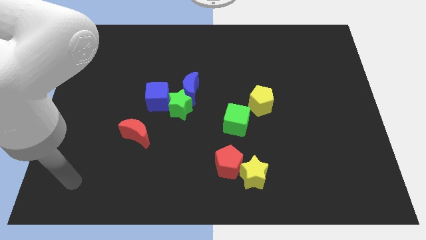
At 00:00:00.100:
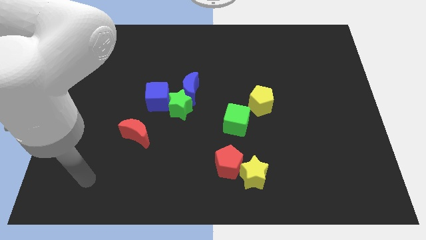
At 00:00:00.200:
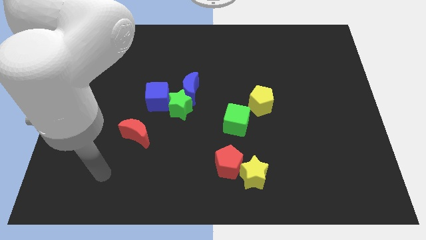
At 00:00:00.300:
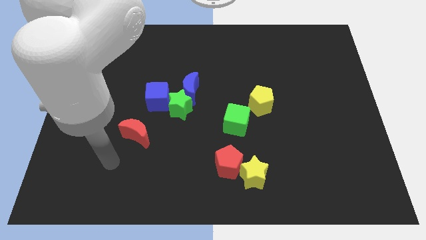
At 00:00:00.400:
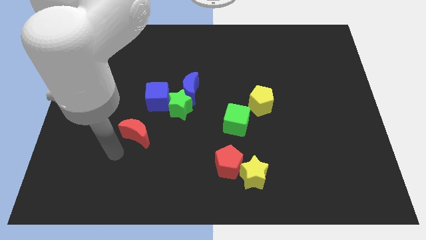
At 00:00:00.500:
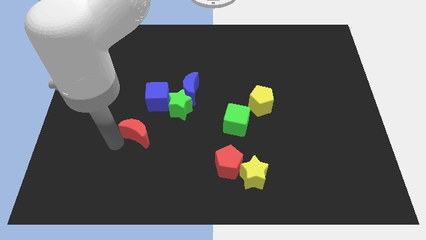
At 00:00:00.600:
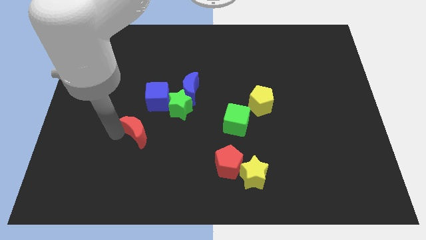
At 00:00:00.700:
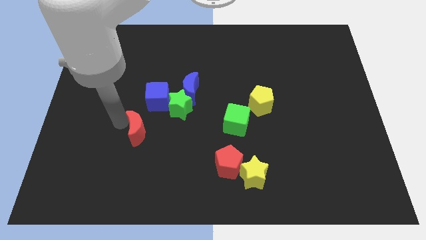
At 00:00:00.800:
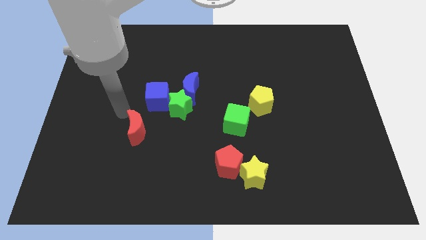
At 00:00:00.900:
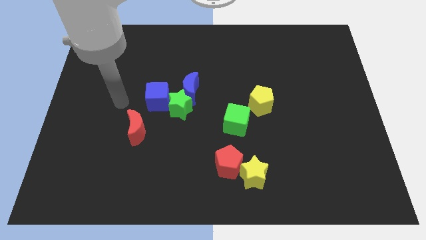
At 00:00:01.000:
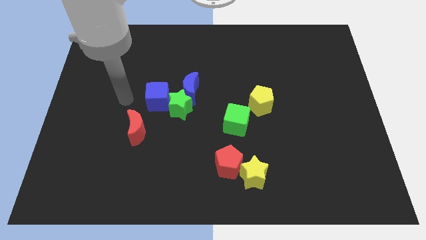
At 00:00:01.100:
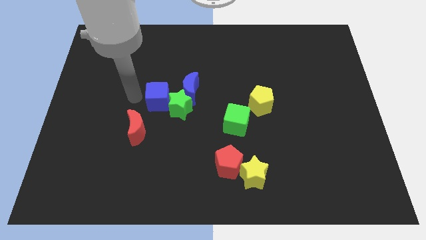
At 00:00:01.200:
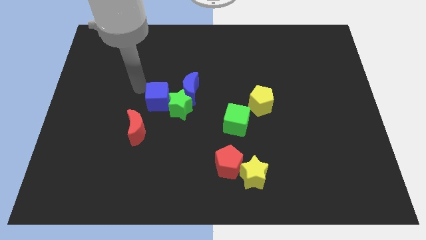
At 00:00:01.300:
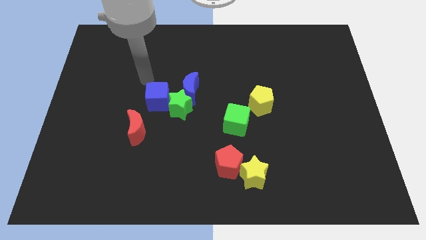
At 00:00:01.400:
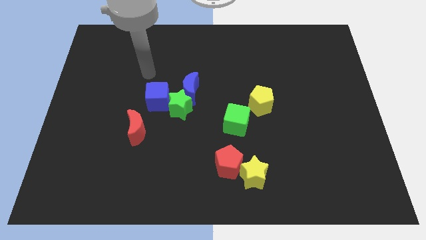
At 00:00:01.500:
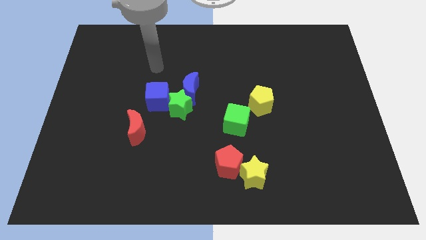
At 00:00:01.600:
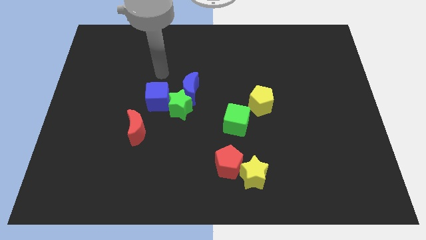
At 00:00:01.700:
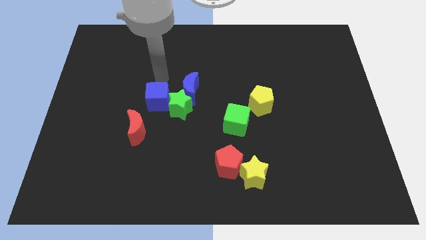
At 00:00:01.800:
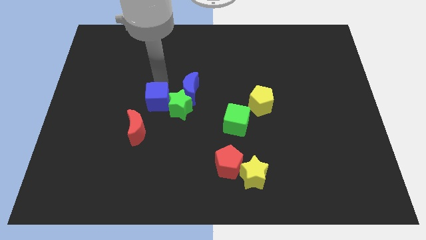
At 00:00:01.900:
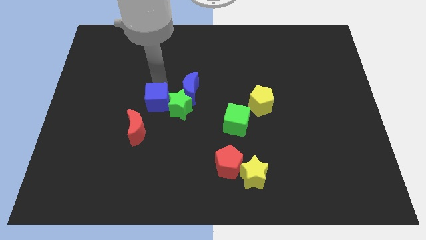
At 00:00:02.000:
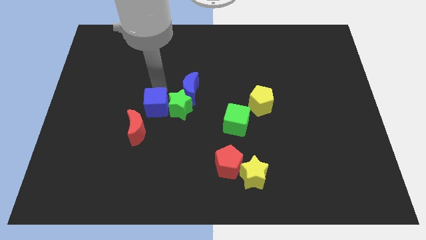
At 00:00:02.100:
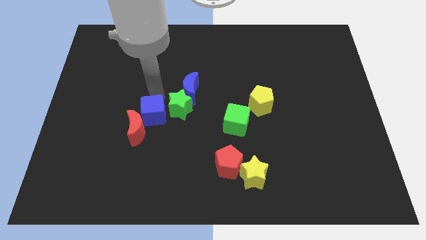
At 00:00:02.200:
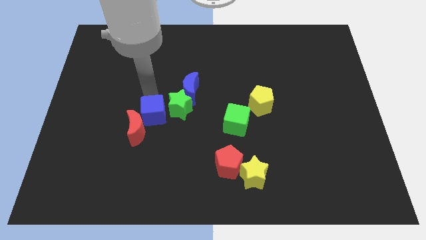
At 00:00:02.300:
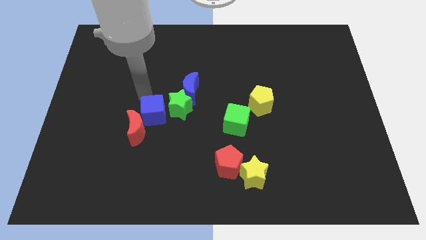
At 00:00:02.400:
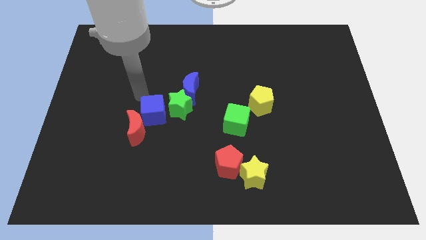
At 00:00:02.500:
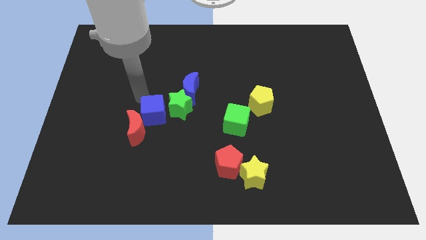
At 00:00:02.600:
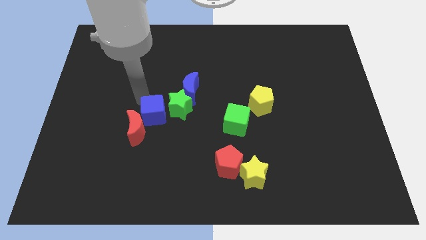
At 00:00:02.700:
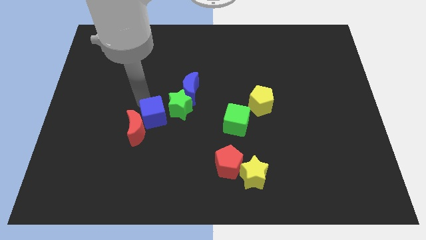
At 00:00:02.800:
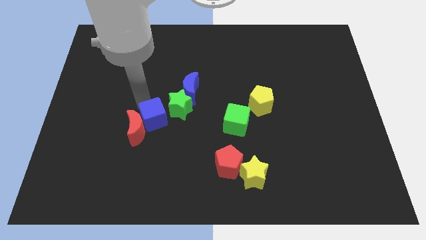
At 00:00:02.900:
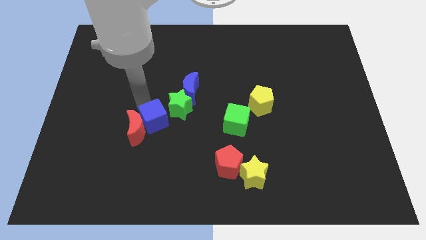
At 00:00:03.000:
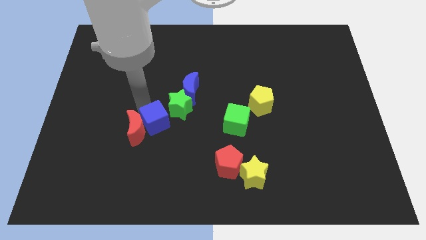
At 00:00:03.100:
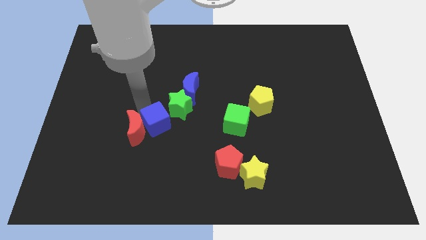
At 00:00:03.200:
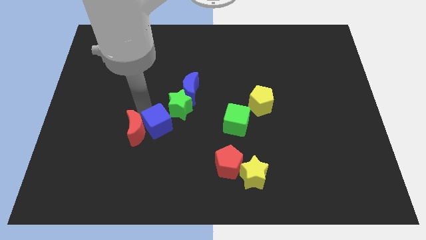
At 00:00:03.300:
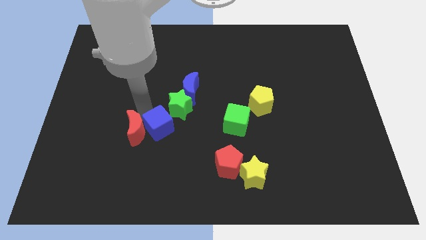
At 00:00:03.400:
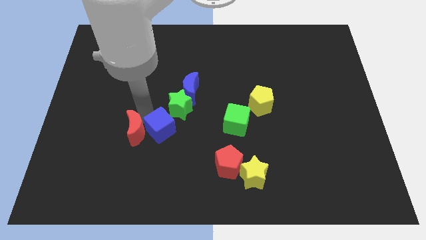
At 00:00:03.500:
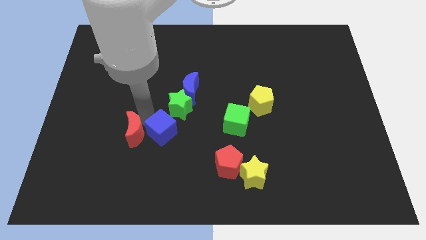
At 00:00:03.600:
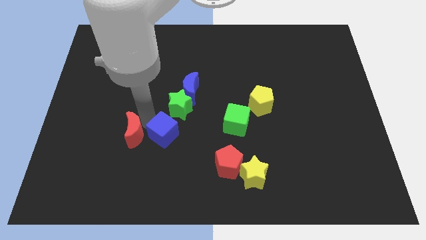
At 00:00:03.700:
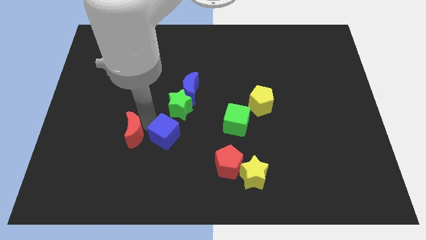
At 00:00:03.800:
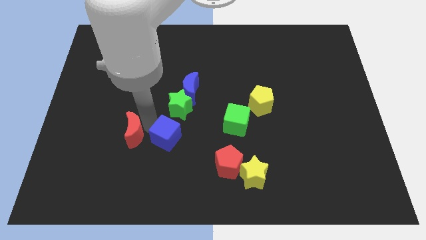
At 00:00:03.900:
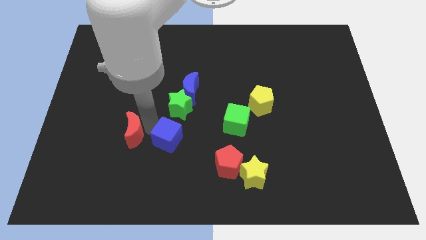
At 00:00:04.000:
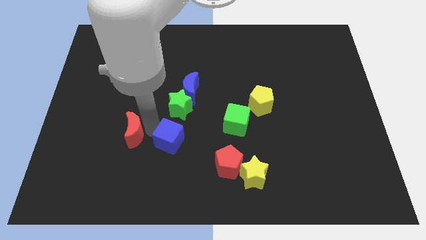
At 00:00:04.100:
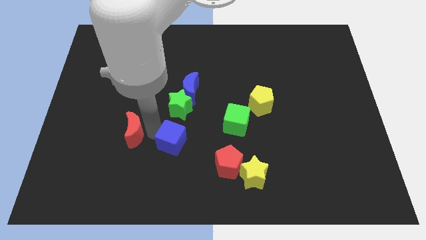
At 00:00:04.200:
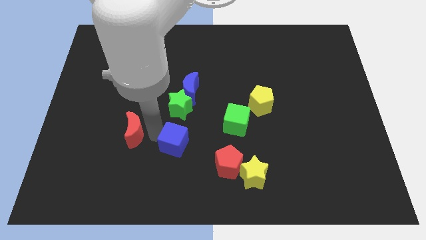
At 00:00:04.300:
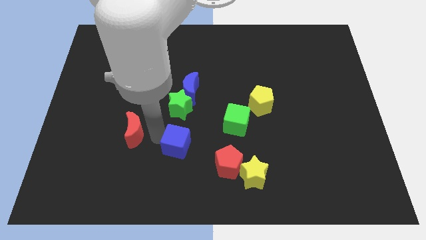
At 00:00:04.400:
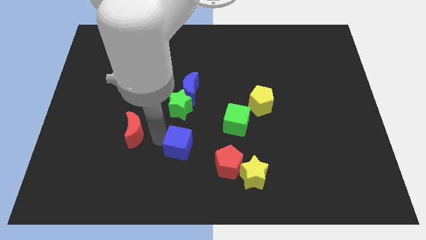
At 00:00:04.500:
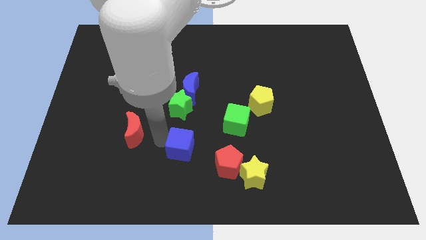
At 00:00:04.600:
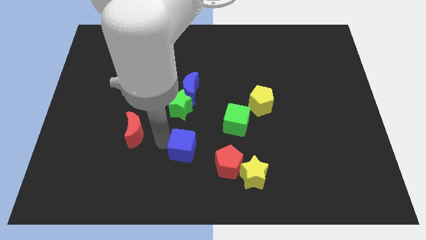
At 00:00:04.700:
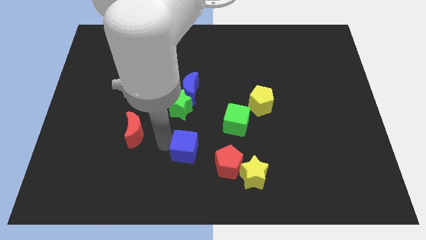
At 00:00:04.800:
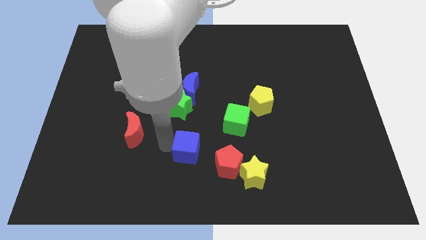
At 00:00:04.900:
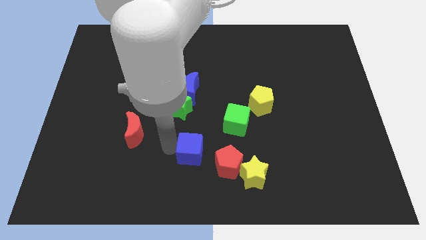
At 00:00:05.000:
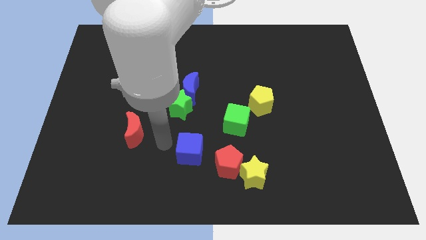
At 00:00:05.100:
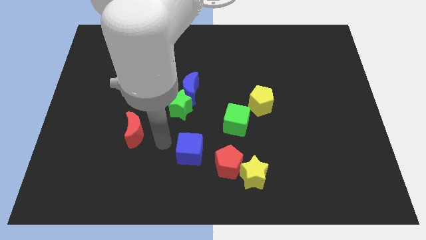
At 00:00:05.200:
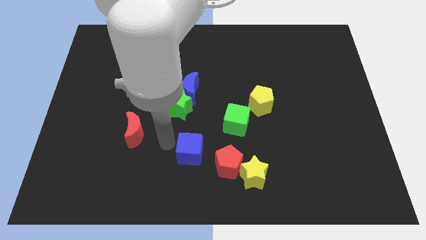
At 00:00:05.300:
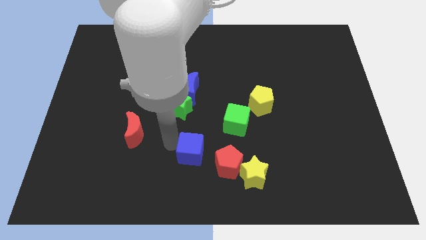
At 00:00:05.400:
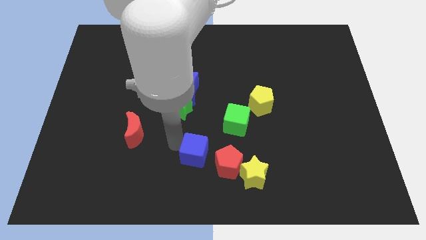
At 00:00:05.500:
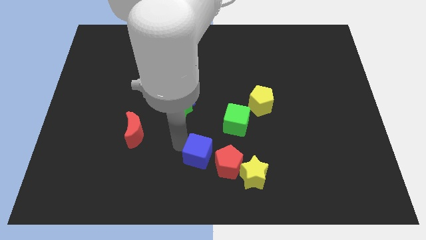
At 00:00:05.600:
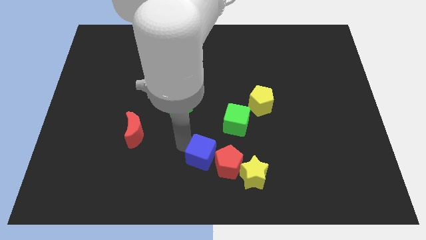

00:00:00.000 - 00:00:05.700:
slide the blue cube next to the red pentagon
